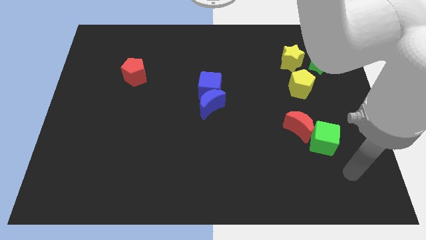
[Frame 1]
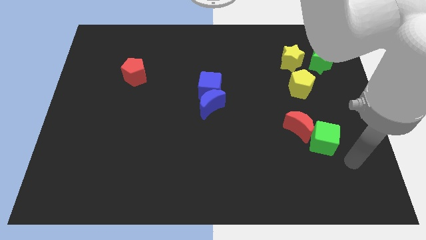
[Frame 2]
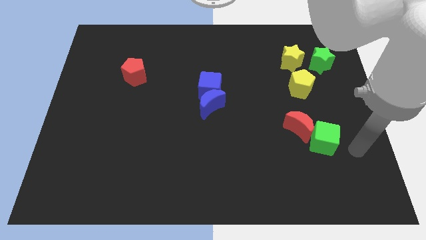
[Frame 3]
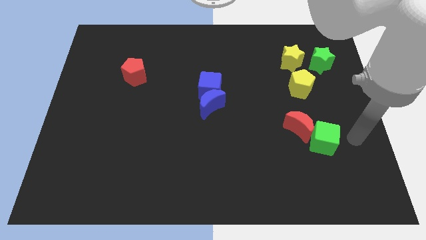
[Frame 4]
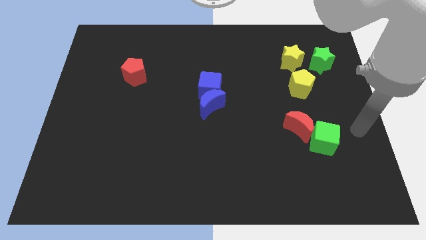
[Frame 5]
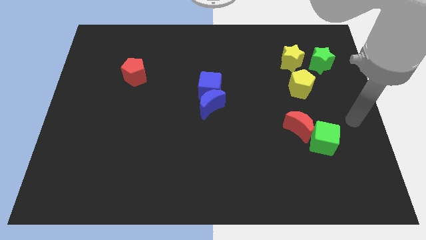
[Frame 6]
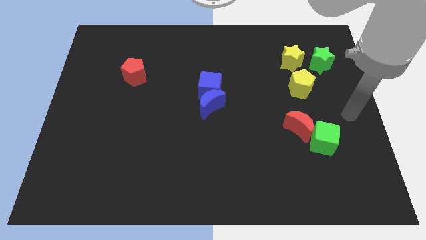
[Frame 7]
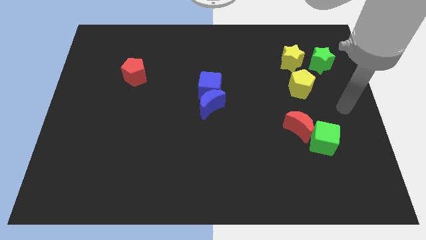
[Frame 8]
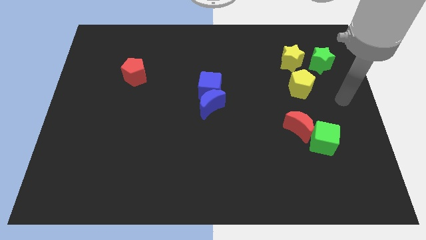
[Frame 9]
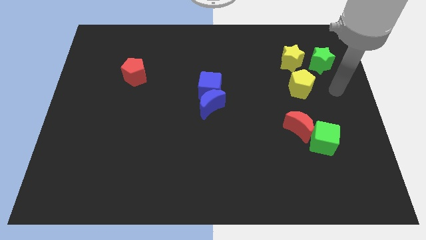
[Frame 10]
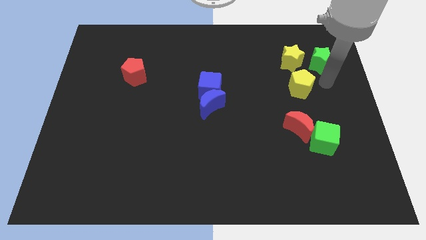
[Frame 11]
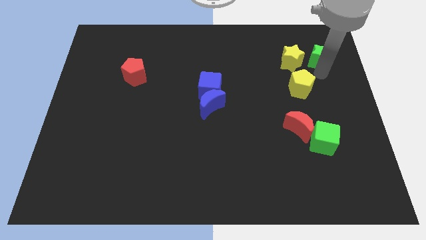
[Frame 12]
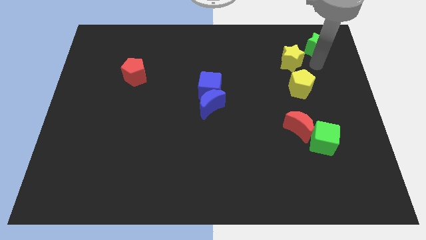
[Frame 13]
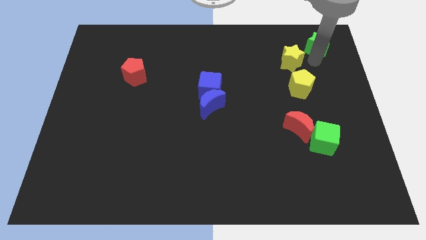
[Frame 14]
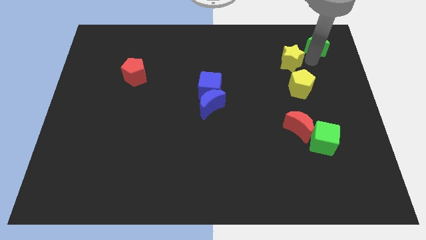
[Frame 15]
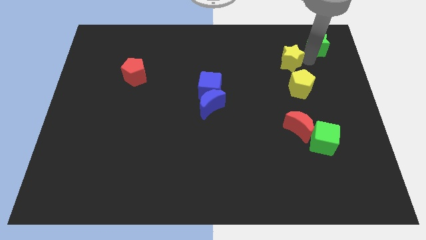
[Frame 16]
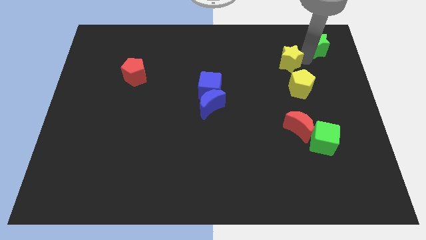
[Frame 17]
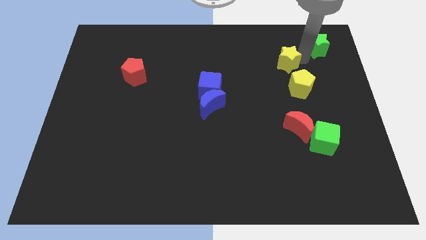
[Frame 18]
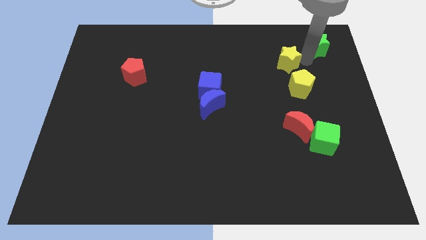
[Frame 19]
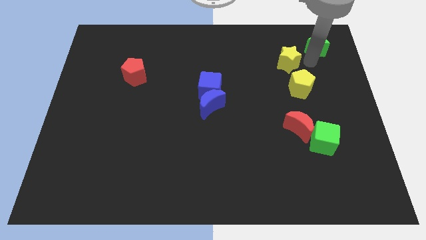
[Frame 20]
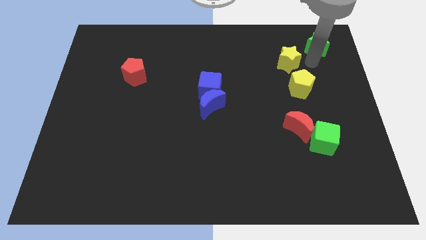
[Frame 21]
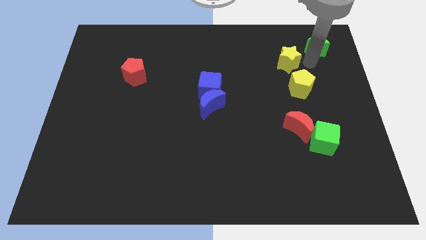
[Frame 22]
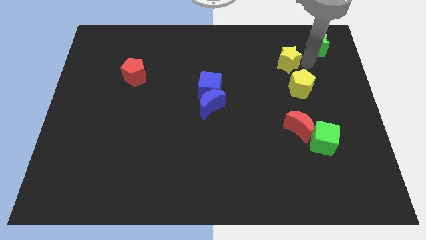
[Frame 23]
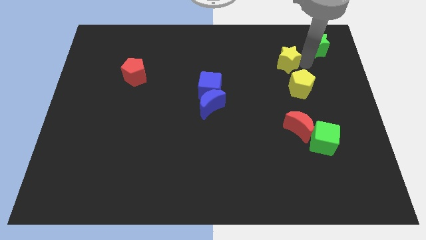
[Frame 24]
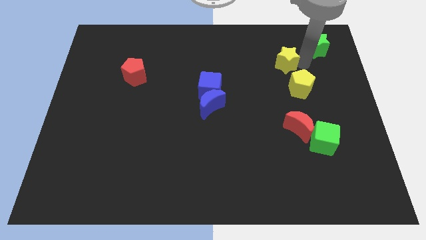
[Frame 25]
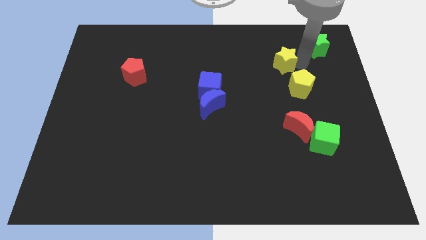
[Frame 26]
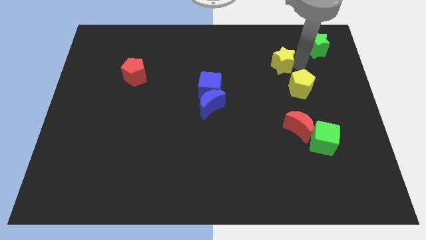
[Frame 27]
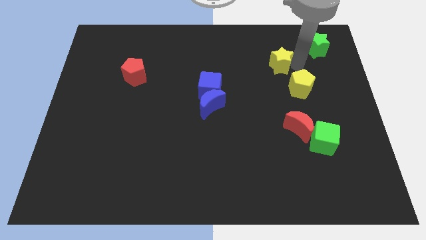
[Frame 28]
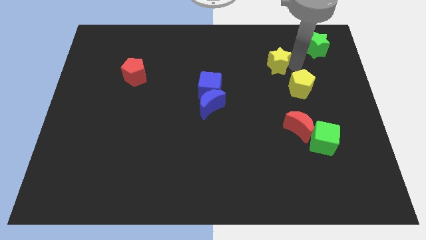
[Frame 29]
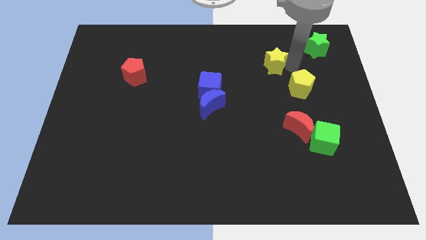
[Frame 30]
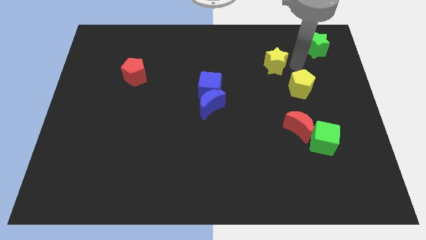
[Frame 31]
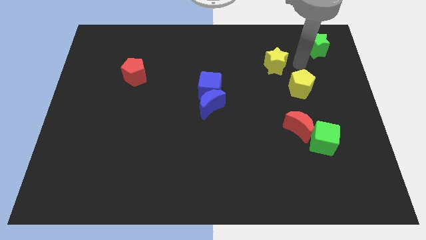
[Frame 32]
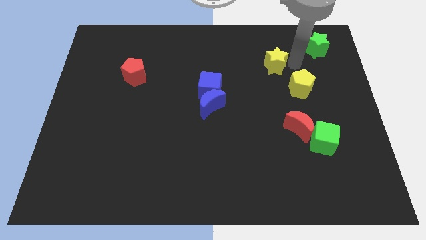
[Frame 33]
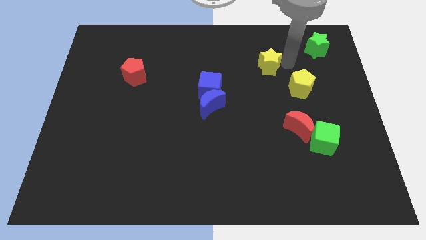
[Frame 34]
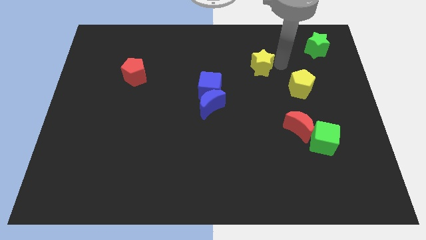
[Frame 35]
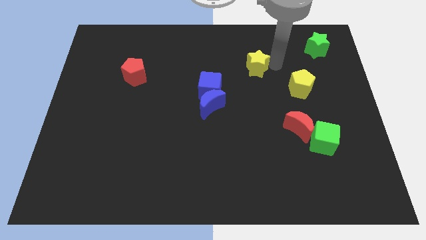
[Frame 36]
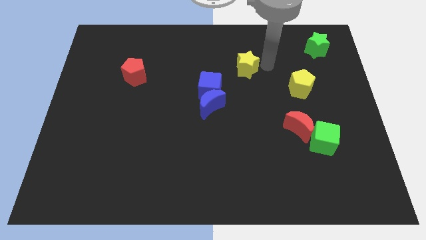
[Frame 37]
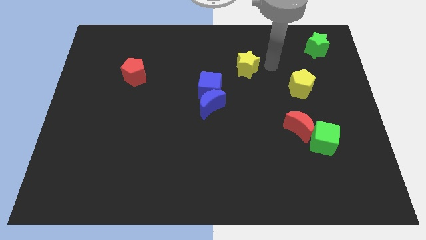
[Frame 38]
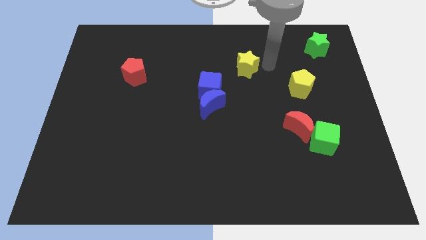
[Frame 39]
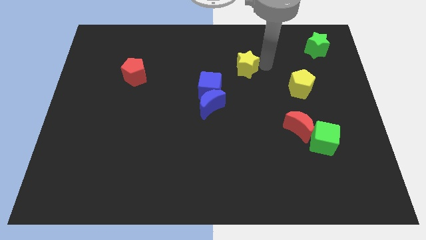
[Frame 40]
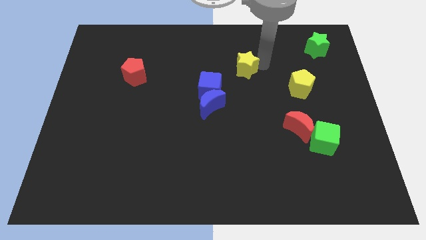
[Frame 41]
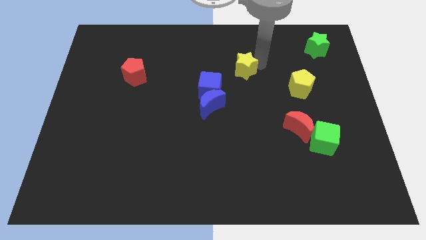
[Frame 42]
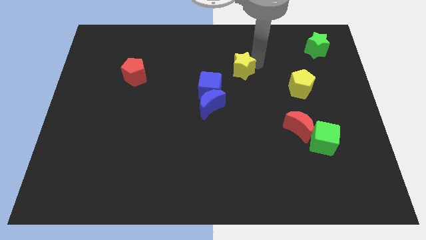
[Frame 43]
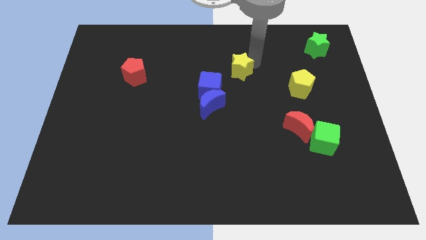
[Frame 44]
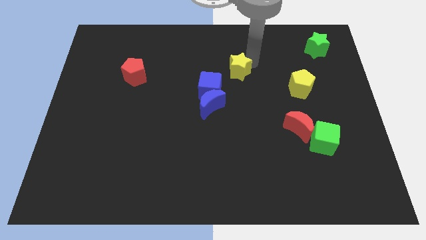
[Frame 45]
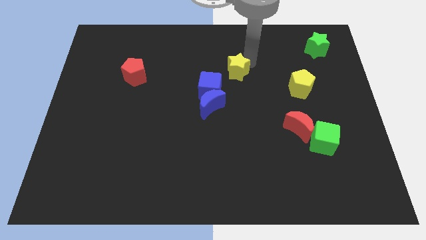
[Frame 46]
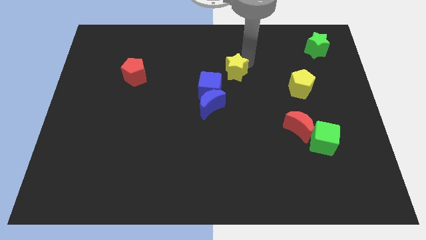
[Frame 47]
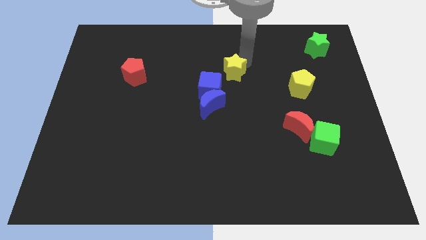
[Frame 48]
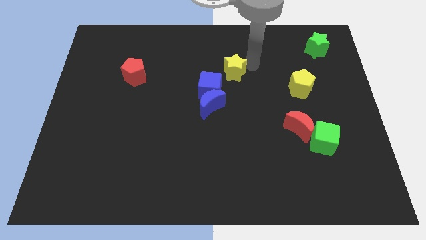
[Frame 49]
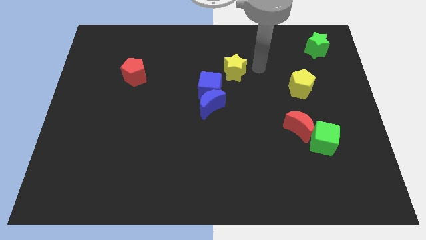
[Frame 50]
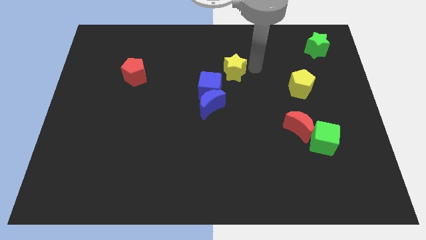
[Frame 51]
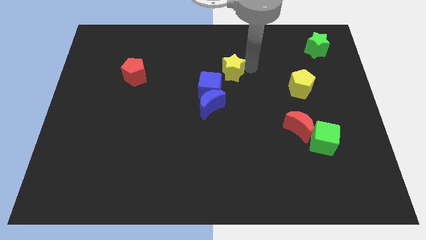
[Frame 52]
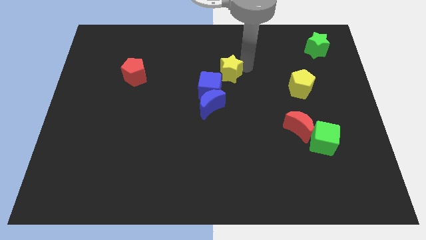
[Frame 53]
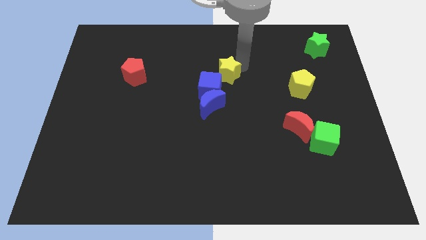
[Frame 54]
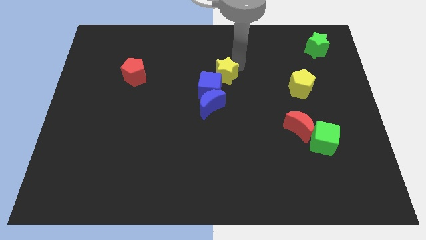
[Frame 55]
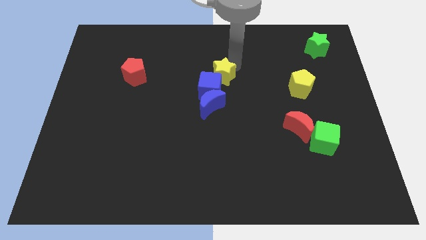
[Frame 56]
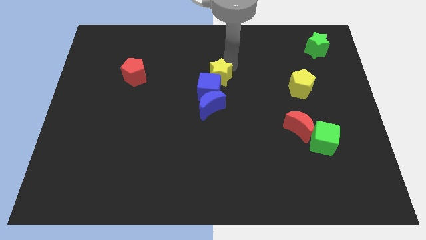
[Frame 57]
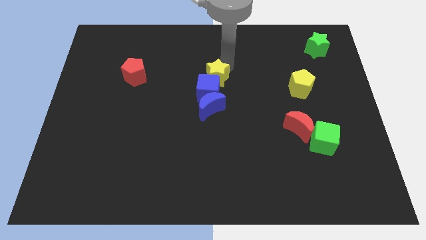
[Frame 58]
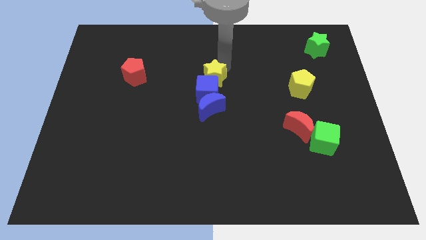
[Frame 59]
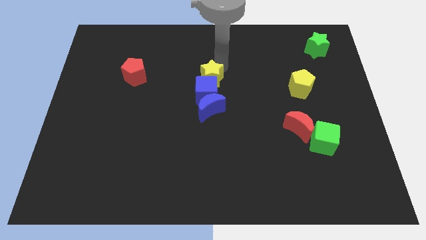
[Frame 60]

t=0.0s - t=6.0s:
push the yellow star to the top left side of the blue cube
